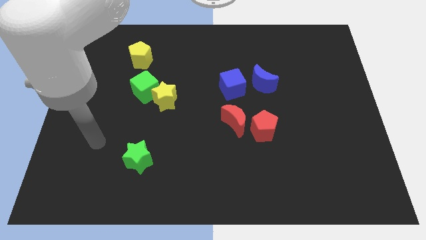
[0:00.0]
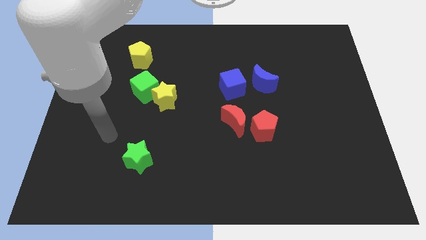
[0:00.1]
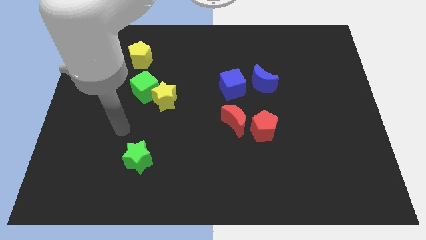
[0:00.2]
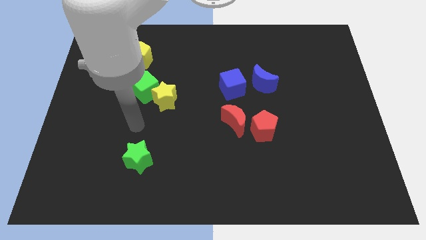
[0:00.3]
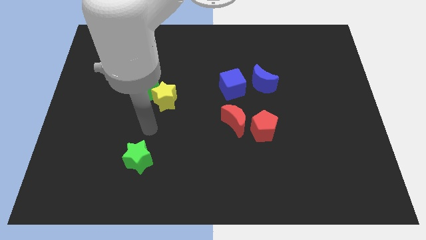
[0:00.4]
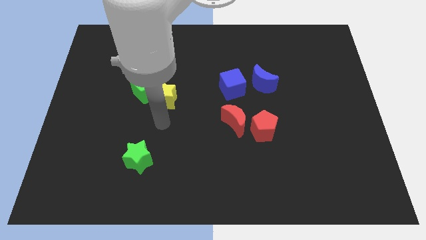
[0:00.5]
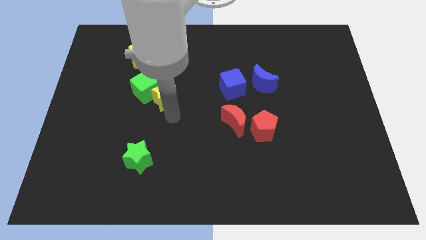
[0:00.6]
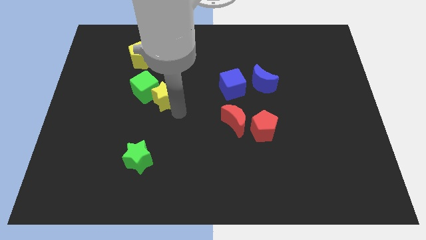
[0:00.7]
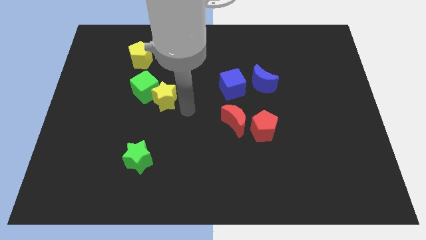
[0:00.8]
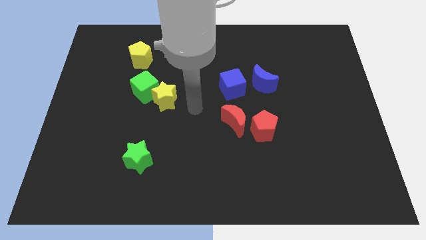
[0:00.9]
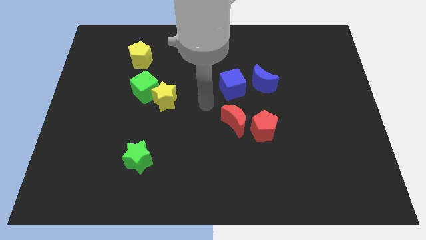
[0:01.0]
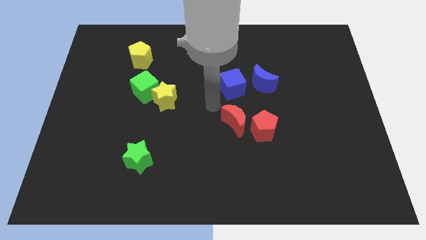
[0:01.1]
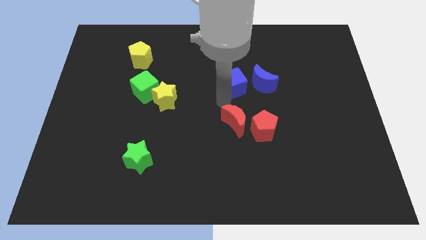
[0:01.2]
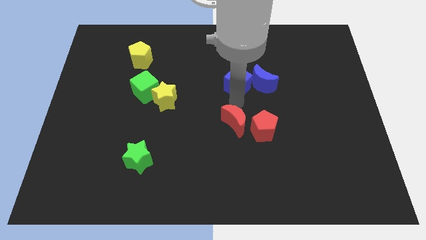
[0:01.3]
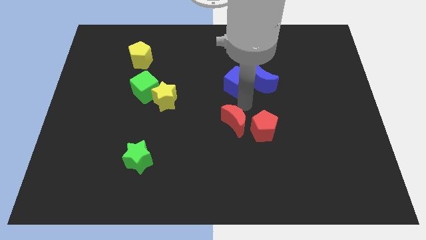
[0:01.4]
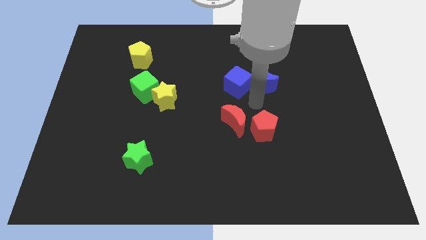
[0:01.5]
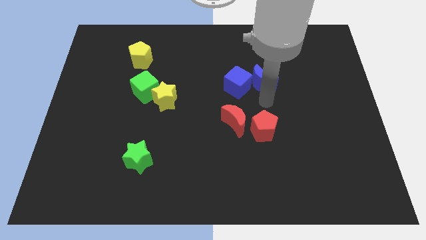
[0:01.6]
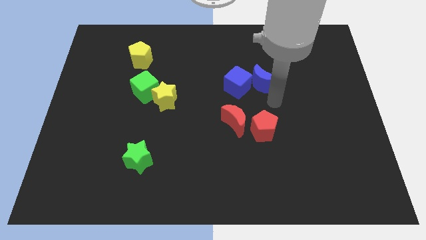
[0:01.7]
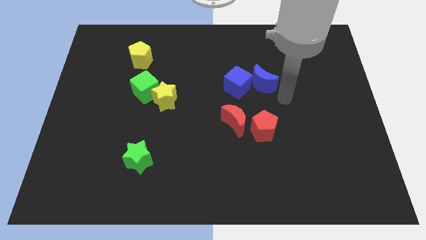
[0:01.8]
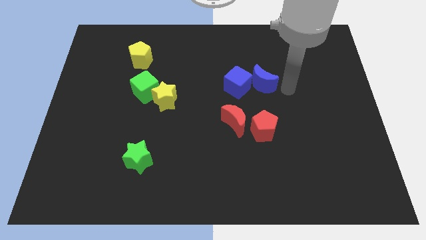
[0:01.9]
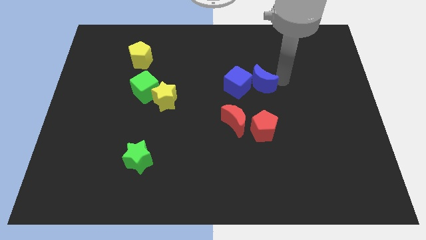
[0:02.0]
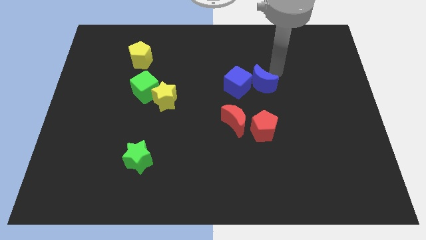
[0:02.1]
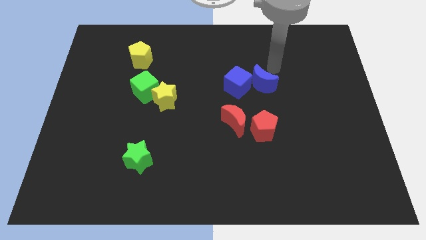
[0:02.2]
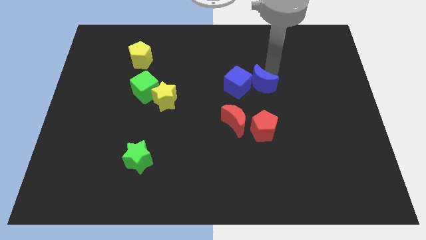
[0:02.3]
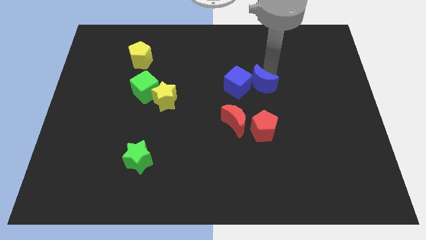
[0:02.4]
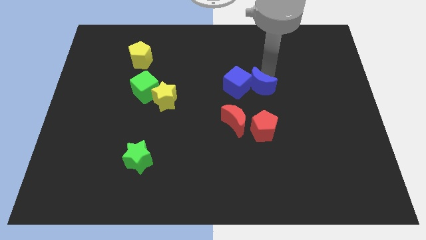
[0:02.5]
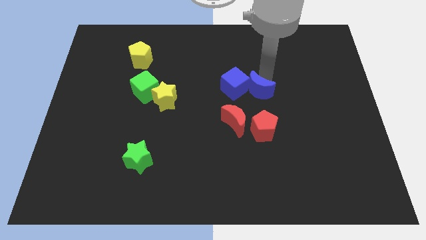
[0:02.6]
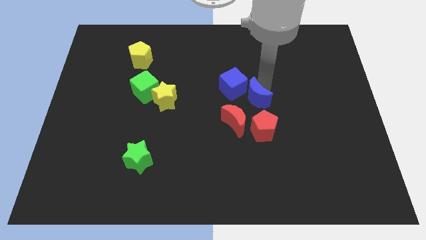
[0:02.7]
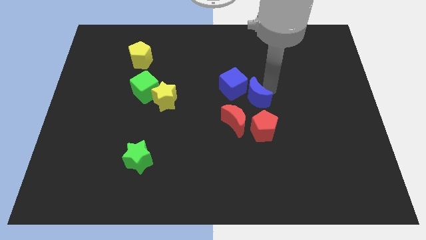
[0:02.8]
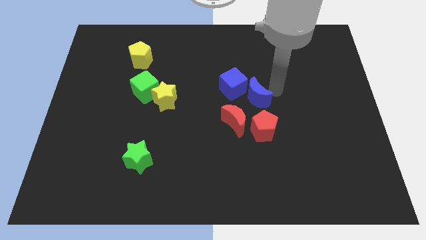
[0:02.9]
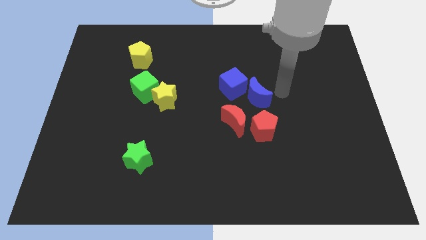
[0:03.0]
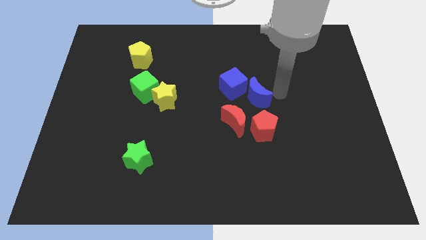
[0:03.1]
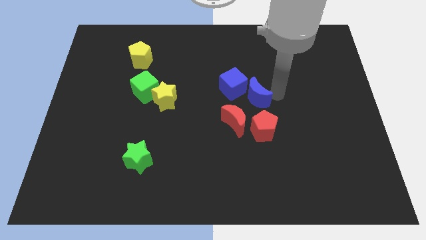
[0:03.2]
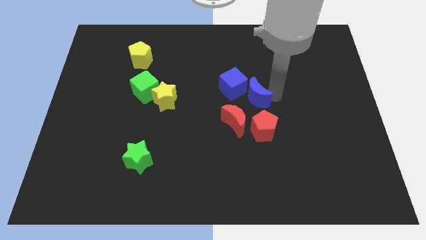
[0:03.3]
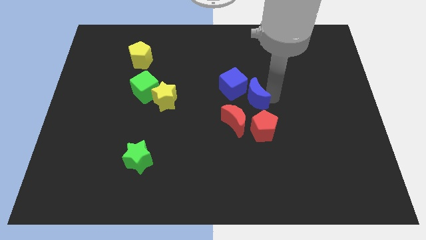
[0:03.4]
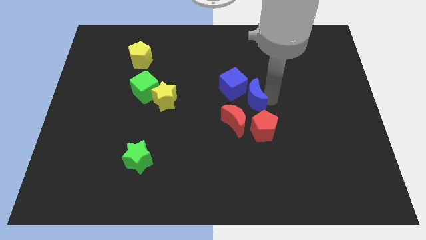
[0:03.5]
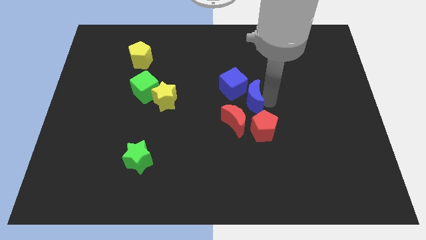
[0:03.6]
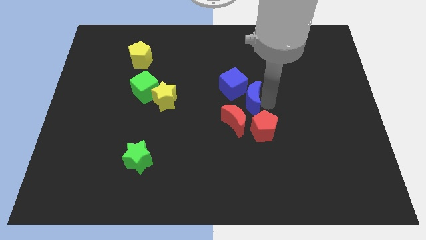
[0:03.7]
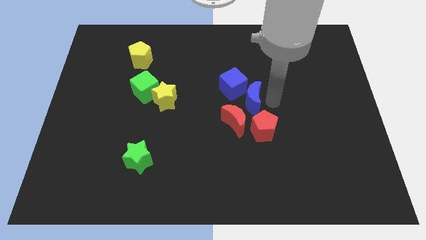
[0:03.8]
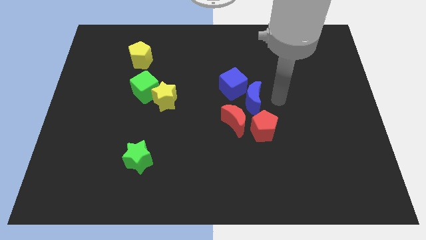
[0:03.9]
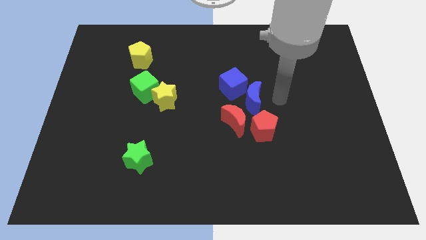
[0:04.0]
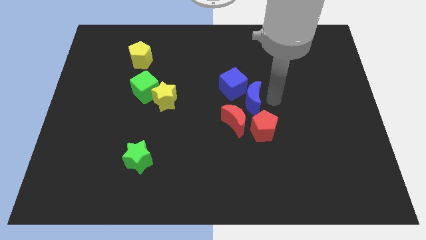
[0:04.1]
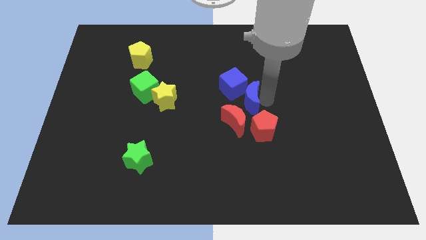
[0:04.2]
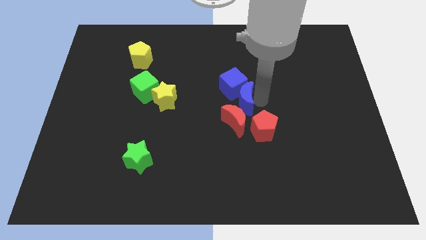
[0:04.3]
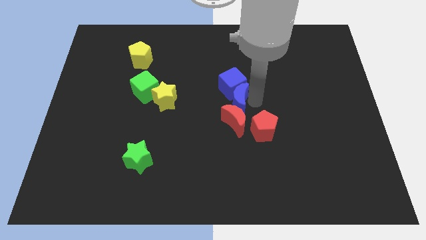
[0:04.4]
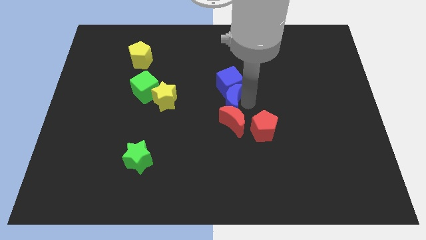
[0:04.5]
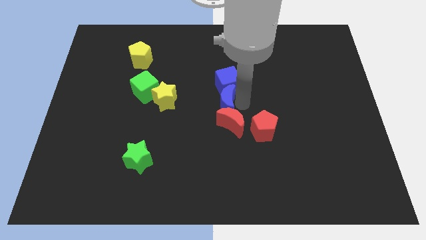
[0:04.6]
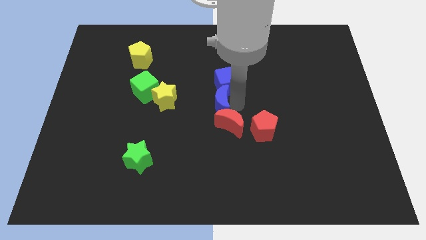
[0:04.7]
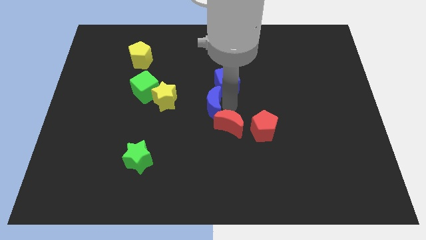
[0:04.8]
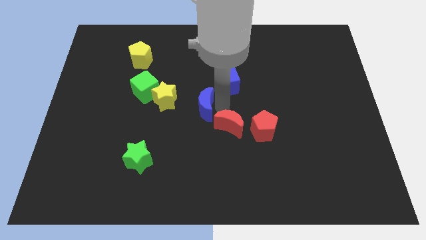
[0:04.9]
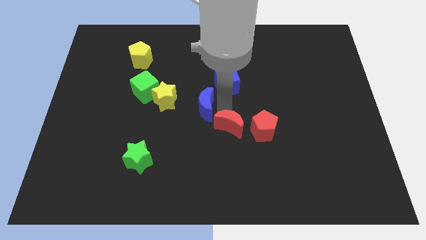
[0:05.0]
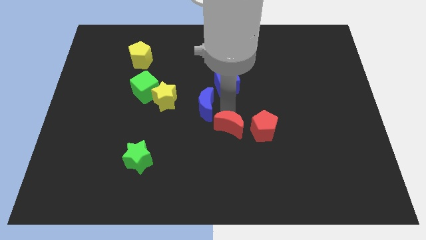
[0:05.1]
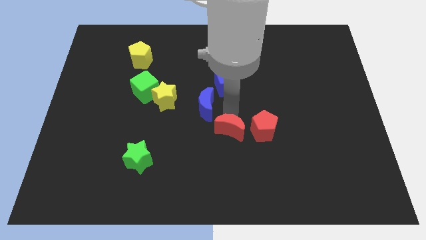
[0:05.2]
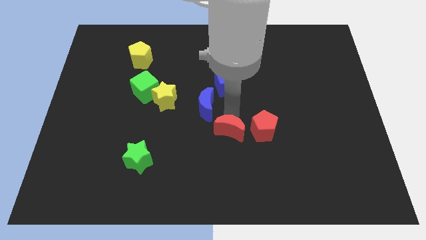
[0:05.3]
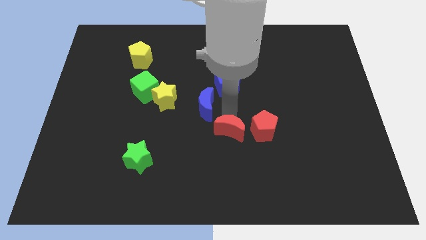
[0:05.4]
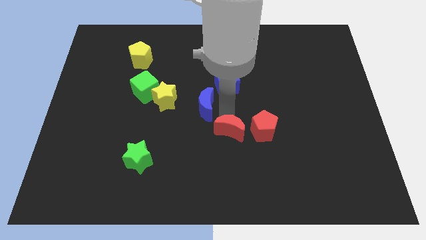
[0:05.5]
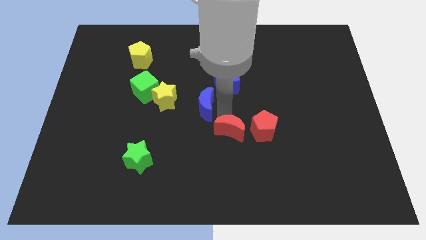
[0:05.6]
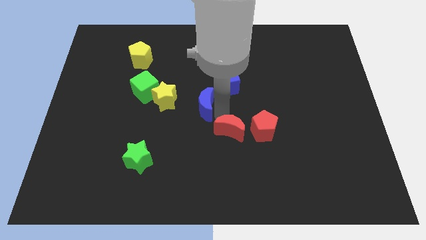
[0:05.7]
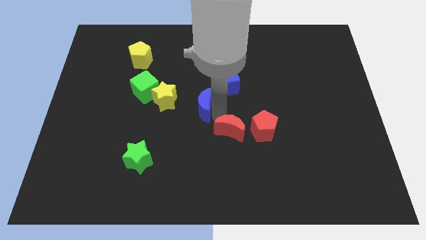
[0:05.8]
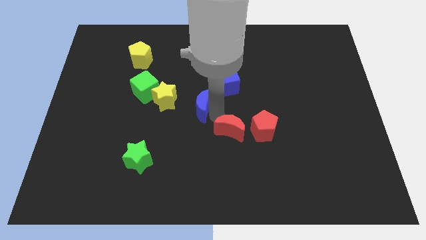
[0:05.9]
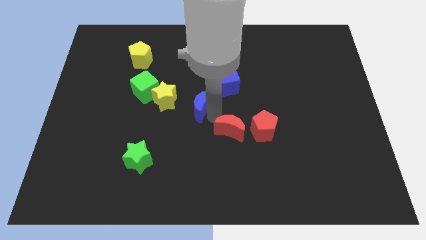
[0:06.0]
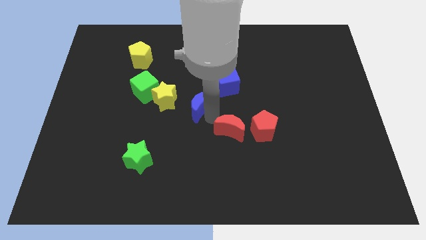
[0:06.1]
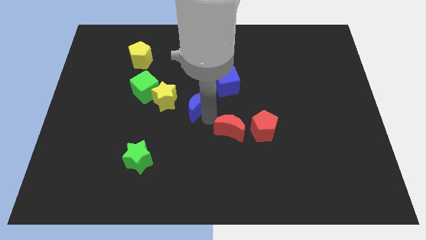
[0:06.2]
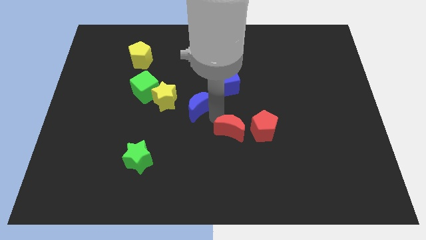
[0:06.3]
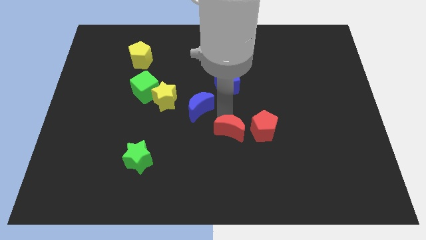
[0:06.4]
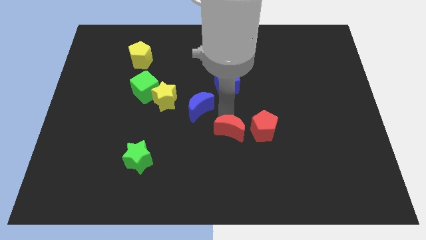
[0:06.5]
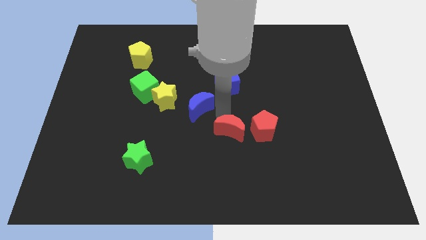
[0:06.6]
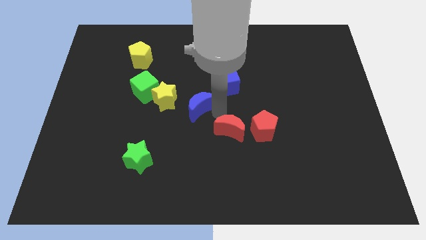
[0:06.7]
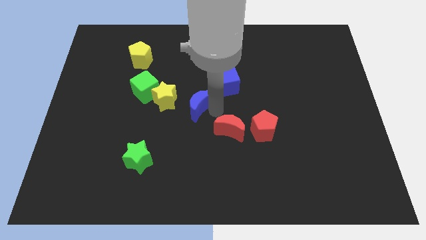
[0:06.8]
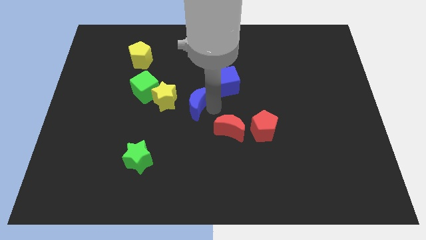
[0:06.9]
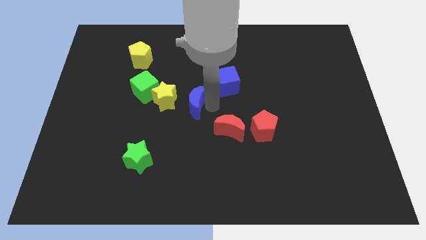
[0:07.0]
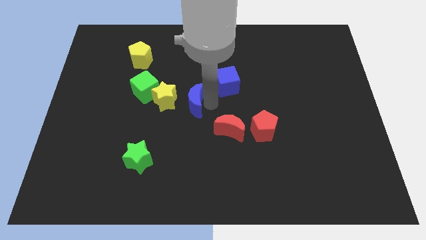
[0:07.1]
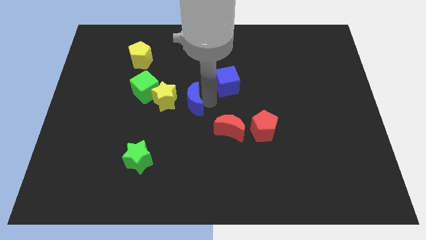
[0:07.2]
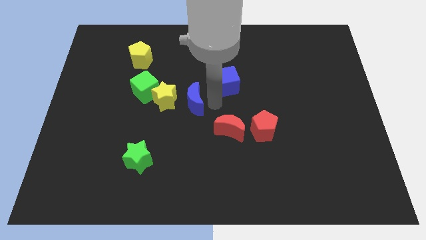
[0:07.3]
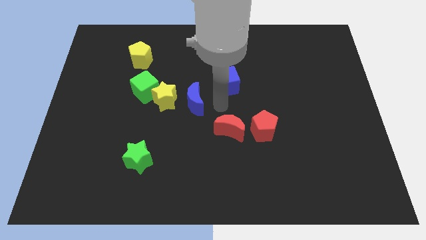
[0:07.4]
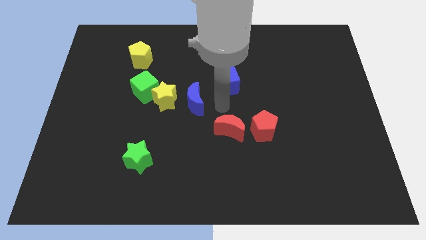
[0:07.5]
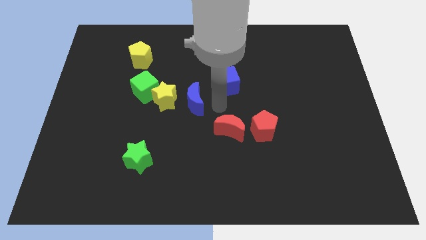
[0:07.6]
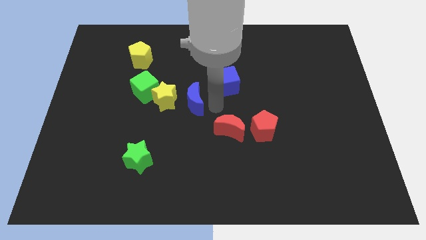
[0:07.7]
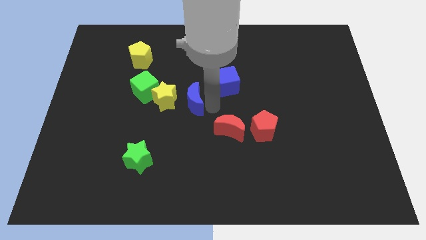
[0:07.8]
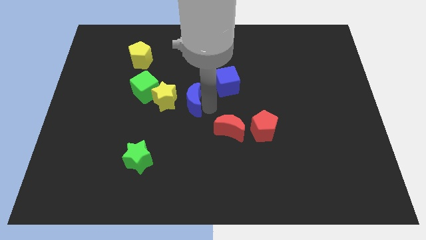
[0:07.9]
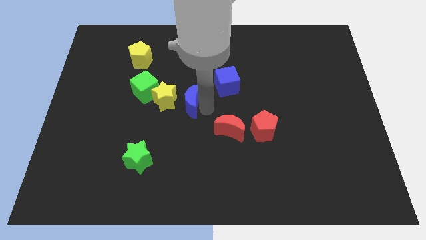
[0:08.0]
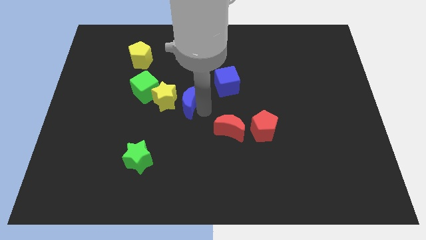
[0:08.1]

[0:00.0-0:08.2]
move the blue moon close to the yellow star
